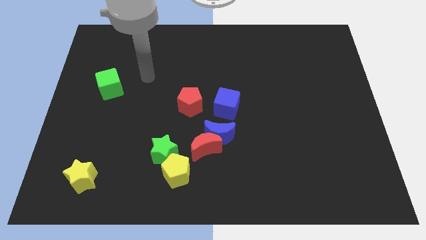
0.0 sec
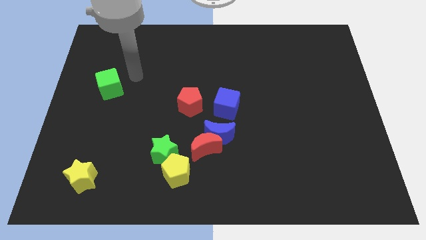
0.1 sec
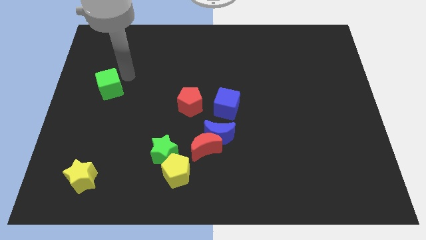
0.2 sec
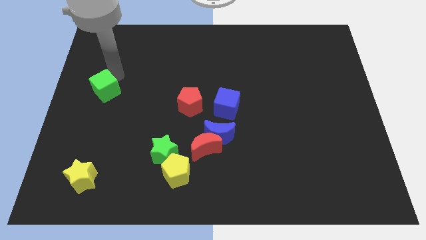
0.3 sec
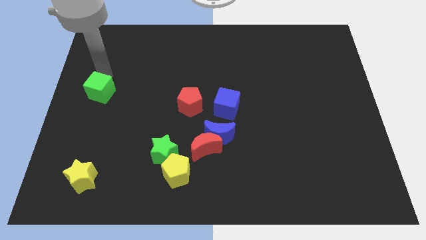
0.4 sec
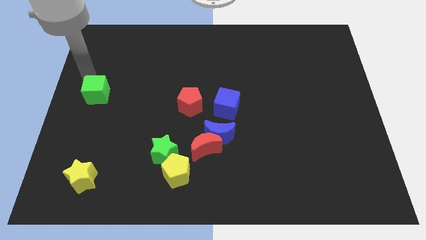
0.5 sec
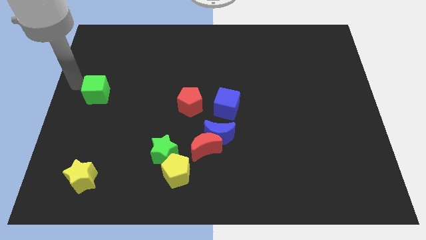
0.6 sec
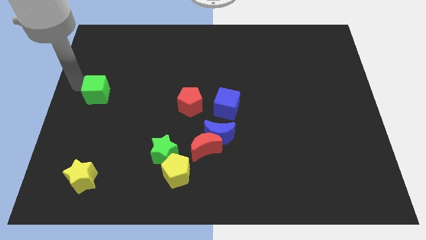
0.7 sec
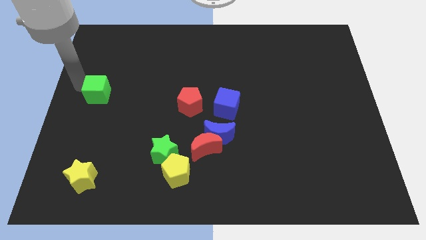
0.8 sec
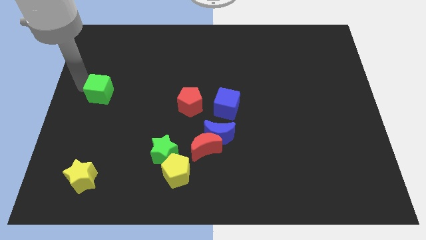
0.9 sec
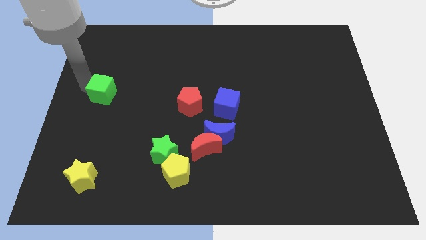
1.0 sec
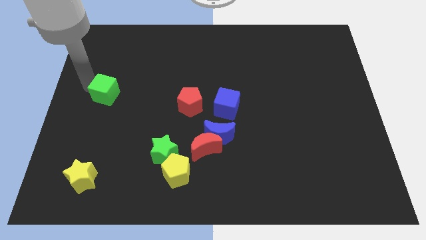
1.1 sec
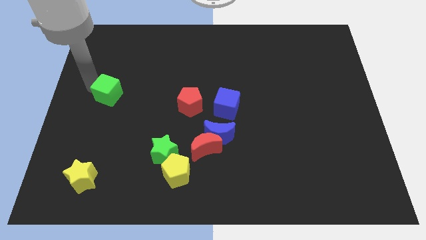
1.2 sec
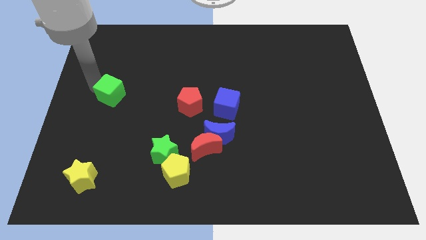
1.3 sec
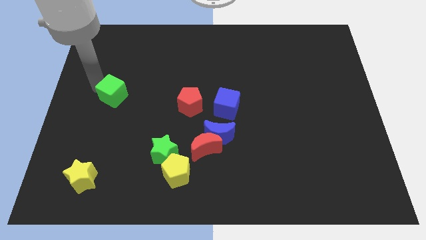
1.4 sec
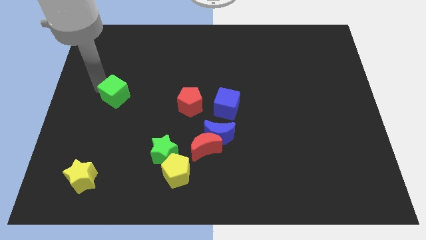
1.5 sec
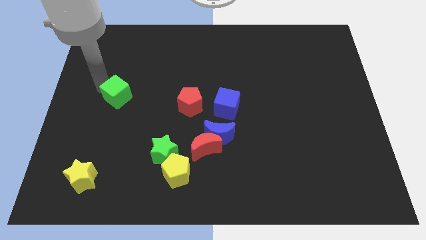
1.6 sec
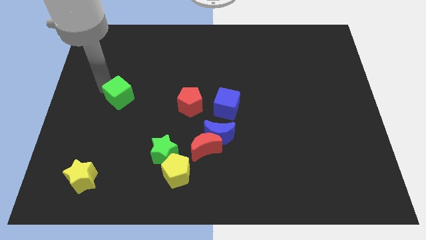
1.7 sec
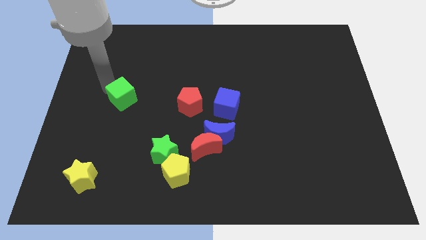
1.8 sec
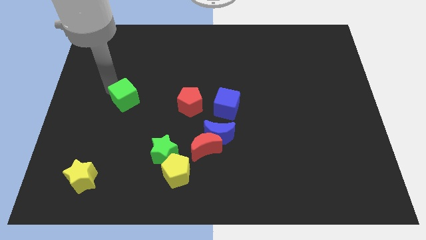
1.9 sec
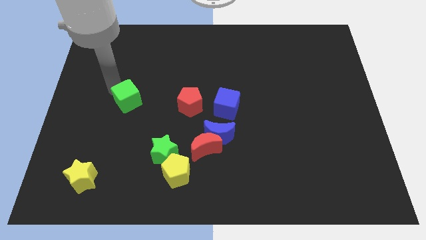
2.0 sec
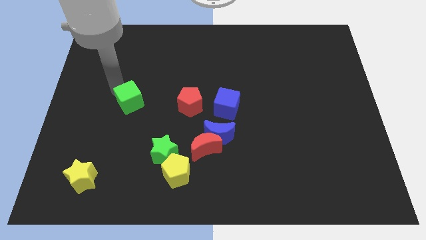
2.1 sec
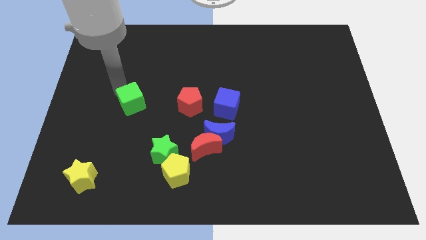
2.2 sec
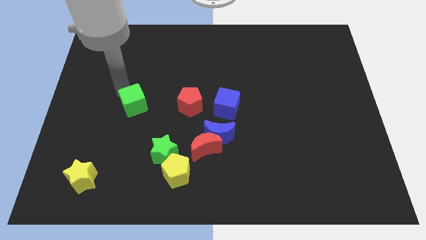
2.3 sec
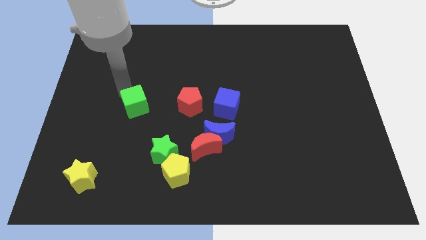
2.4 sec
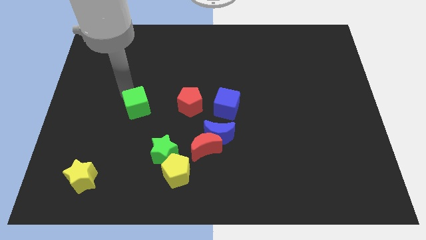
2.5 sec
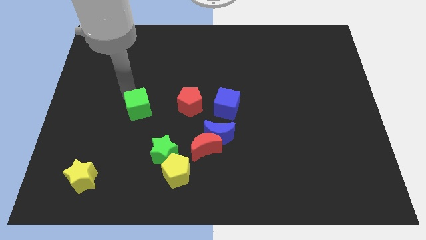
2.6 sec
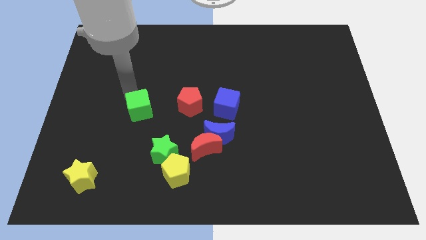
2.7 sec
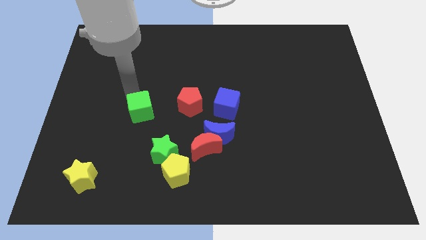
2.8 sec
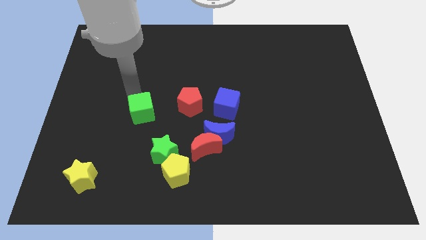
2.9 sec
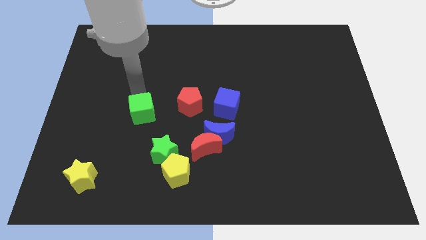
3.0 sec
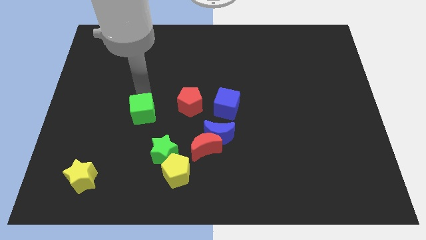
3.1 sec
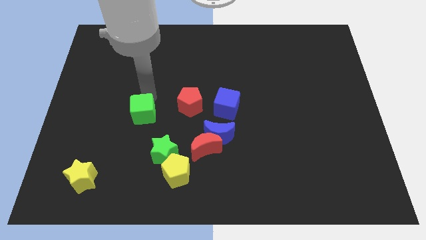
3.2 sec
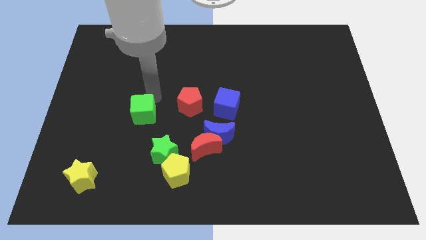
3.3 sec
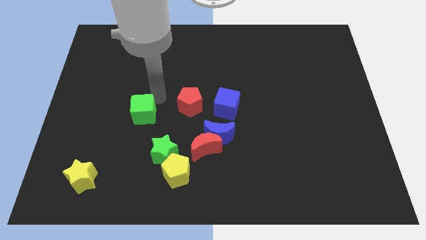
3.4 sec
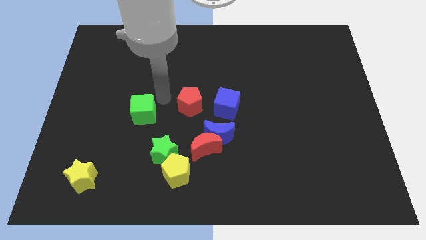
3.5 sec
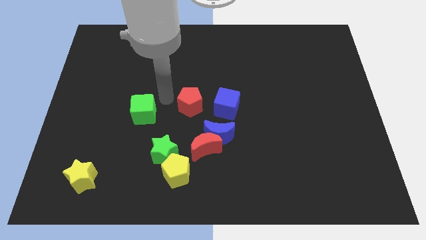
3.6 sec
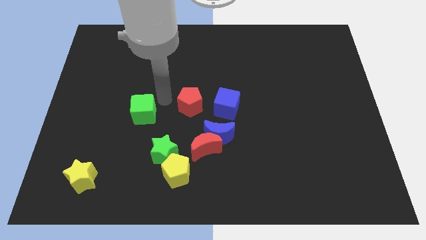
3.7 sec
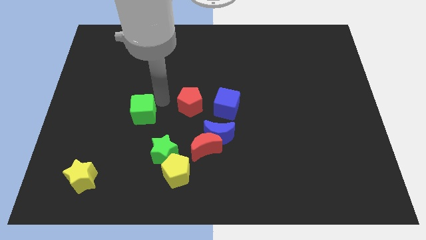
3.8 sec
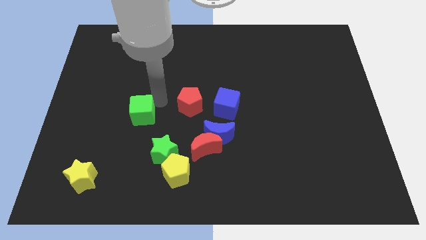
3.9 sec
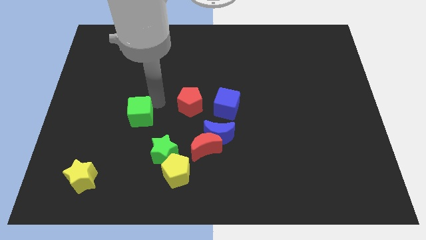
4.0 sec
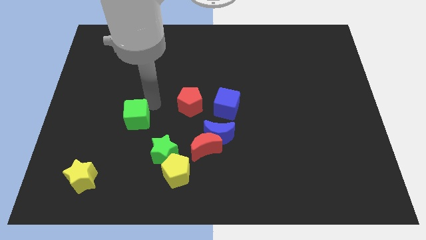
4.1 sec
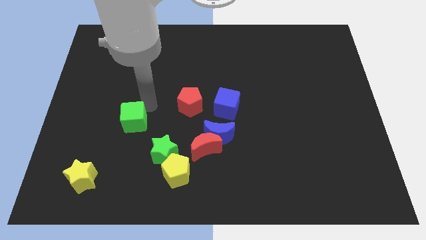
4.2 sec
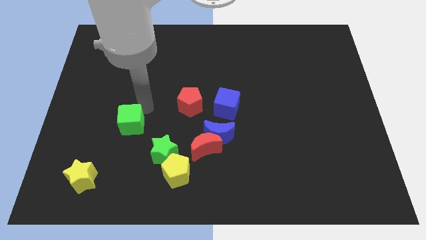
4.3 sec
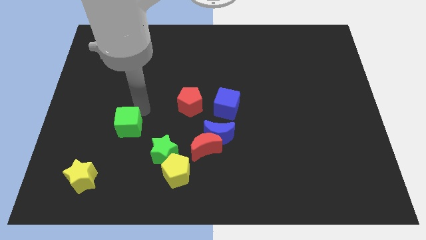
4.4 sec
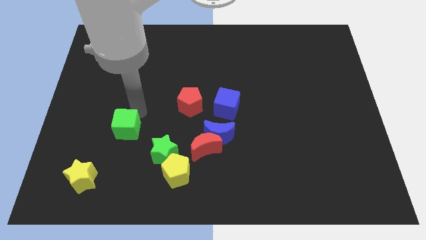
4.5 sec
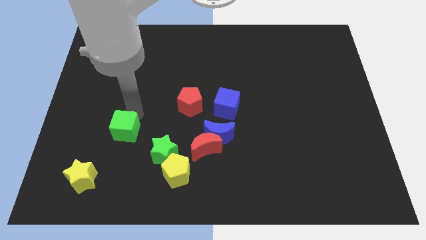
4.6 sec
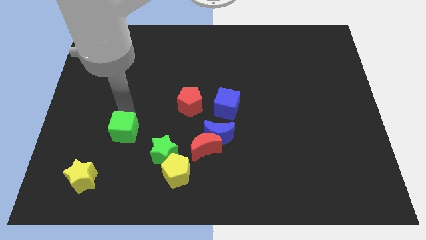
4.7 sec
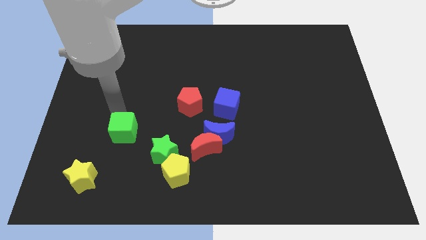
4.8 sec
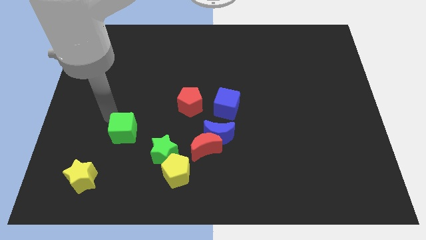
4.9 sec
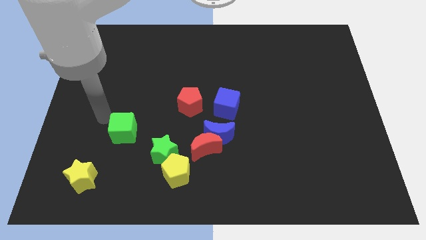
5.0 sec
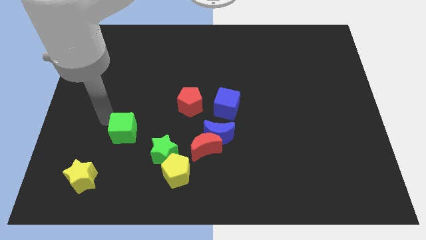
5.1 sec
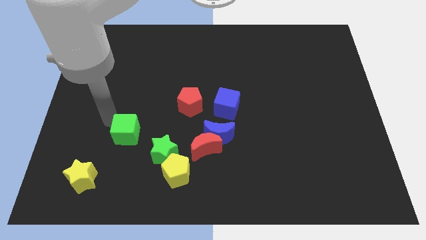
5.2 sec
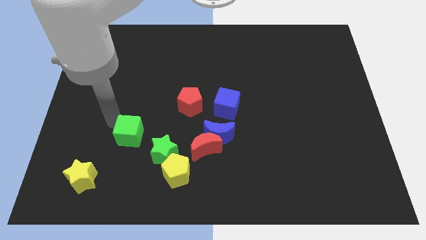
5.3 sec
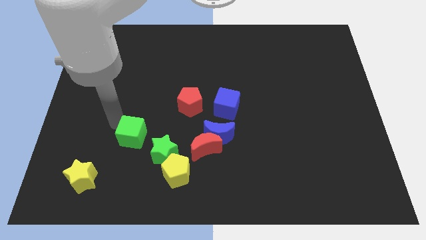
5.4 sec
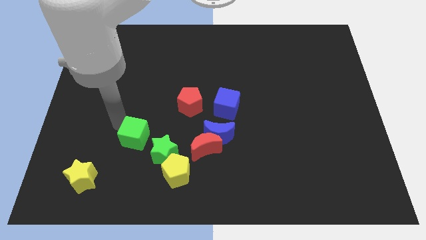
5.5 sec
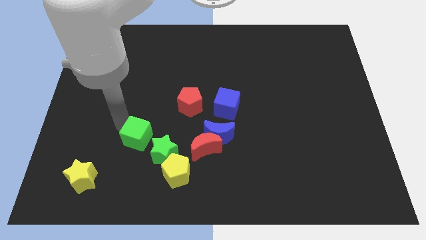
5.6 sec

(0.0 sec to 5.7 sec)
push the green cube to the top left side of the yellow pentagon

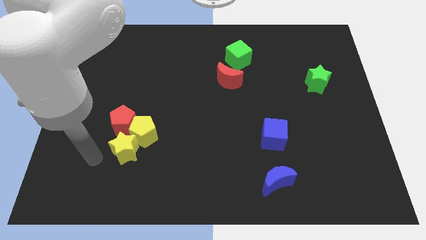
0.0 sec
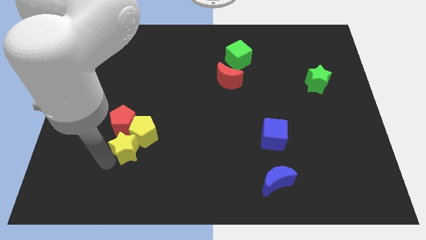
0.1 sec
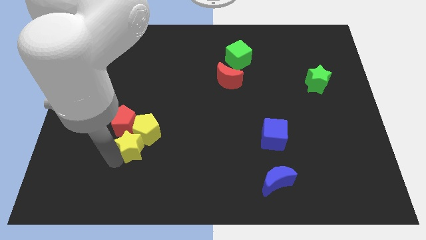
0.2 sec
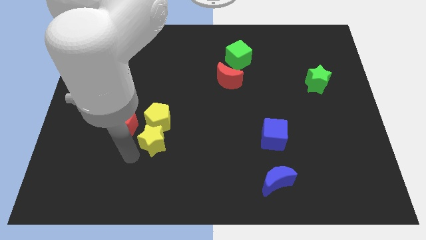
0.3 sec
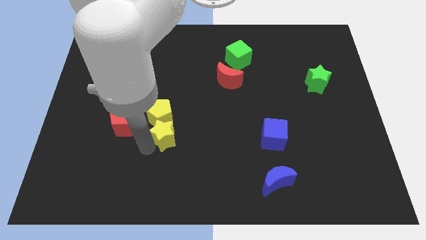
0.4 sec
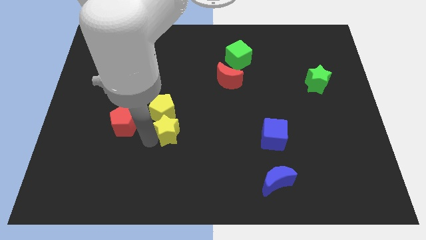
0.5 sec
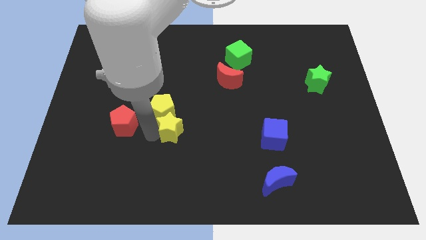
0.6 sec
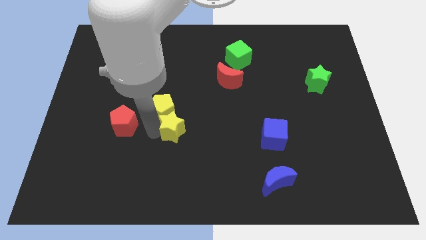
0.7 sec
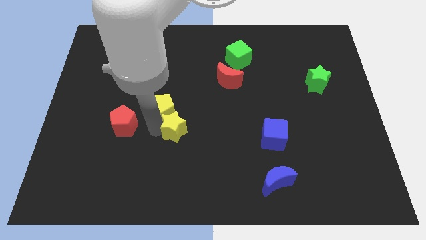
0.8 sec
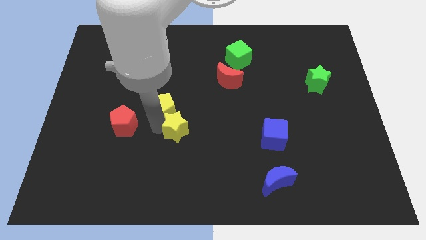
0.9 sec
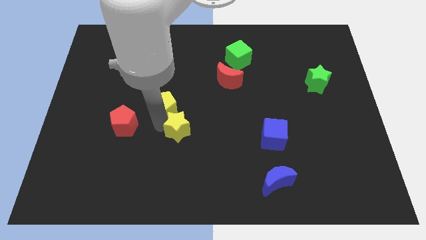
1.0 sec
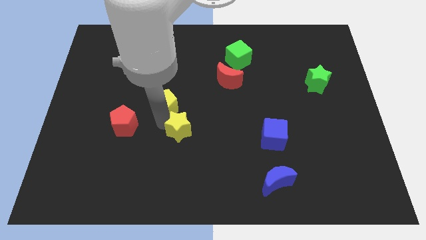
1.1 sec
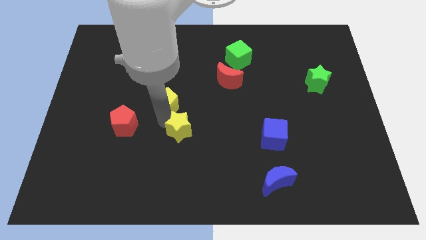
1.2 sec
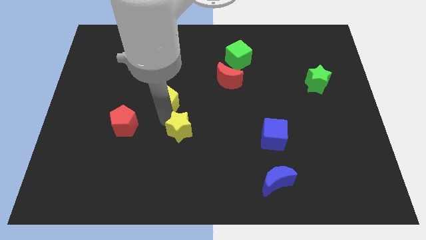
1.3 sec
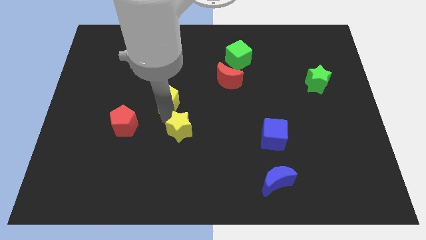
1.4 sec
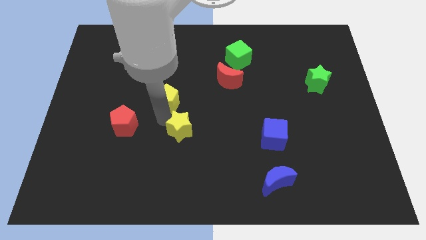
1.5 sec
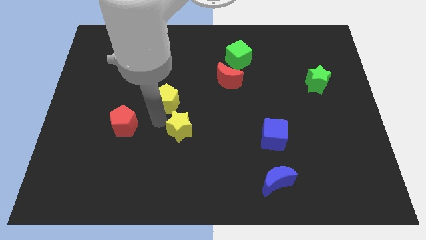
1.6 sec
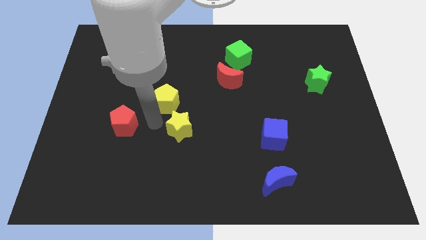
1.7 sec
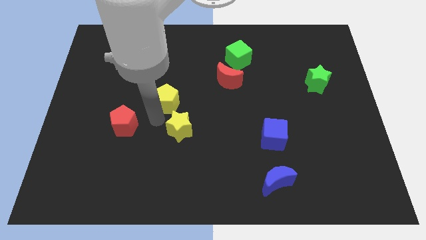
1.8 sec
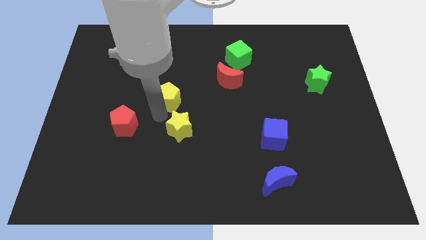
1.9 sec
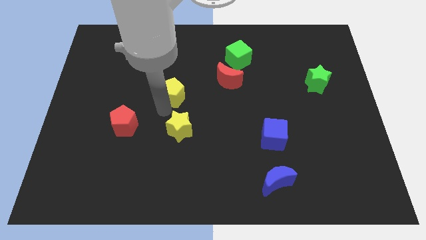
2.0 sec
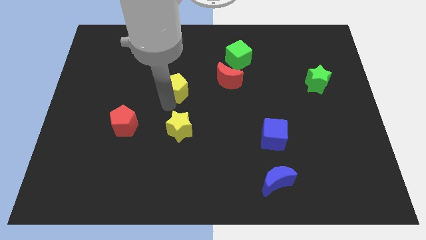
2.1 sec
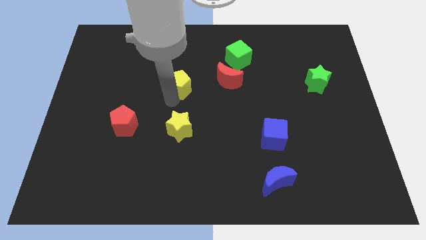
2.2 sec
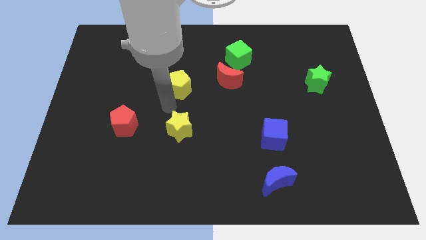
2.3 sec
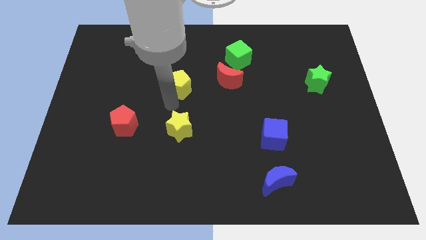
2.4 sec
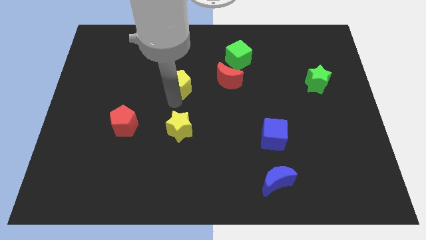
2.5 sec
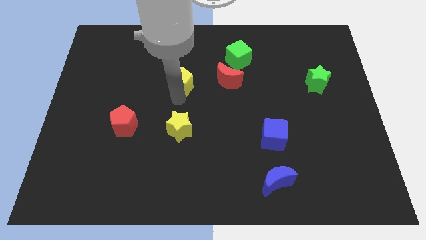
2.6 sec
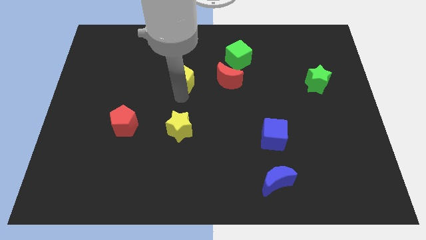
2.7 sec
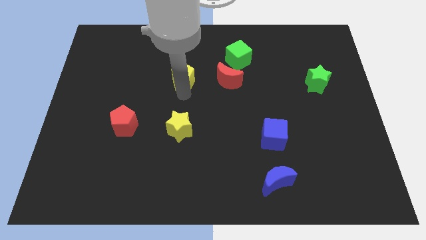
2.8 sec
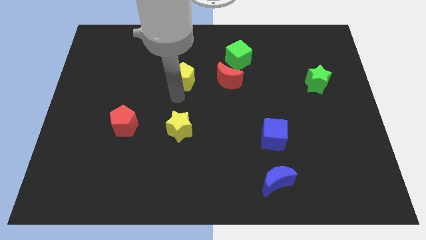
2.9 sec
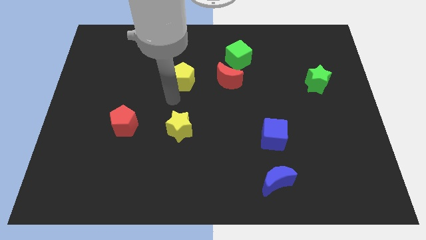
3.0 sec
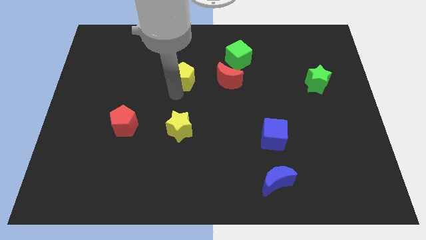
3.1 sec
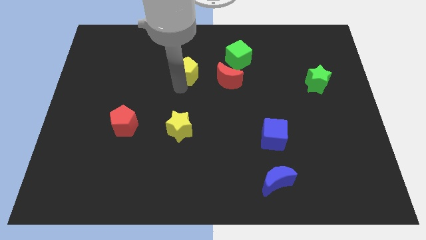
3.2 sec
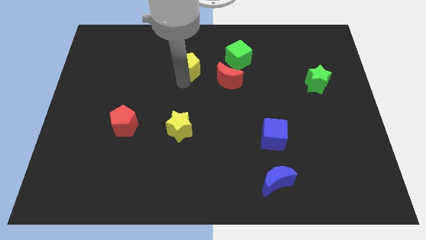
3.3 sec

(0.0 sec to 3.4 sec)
slide the yellow pentagon to the left side of the green cube
